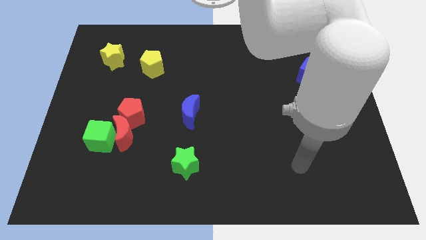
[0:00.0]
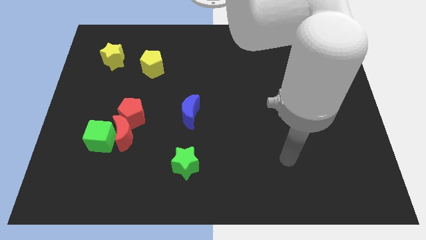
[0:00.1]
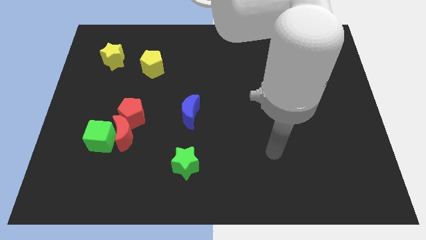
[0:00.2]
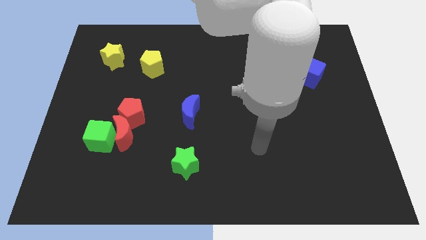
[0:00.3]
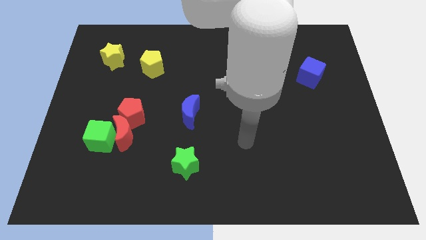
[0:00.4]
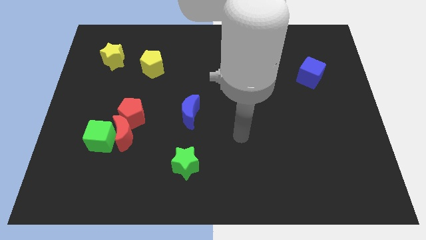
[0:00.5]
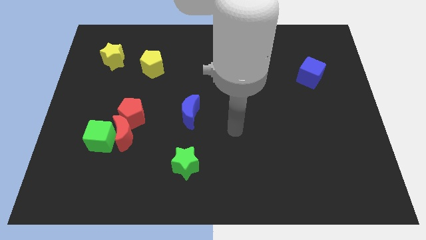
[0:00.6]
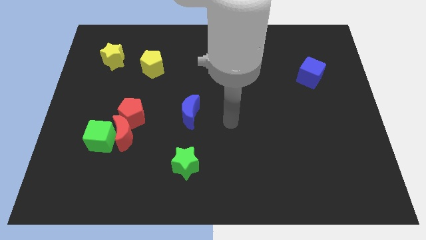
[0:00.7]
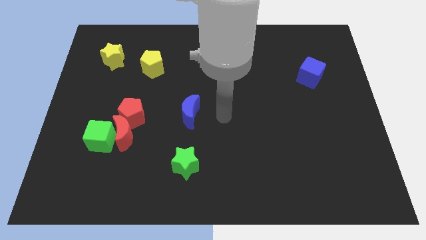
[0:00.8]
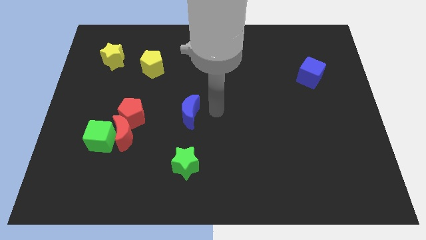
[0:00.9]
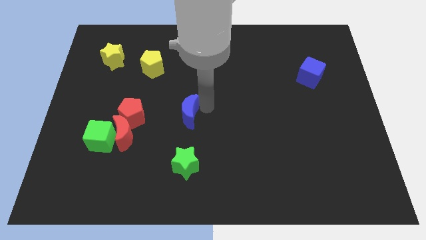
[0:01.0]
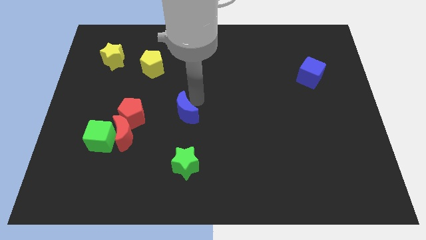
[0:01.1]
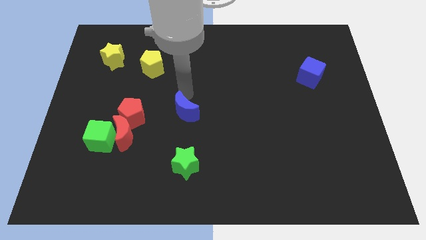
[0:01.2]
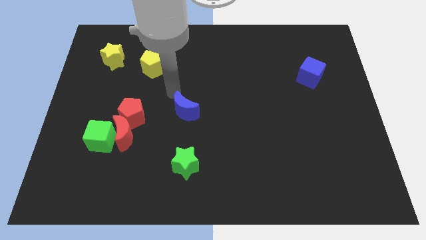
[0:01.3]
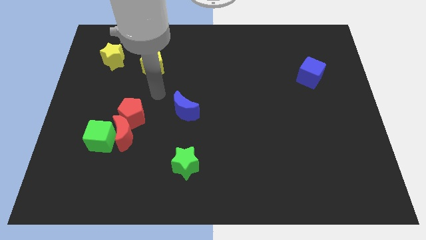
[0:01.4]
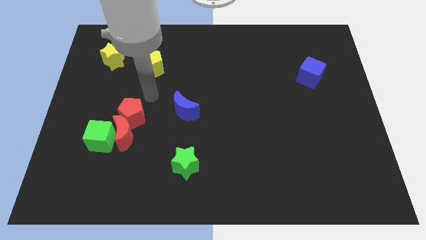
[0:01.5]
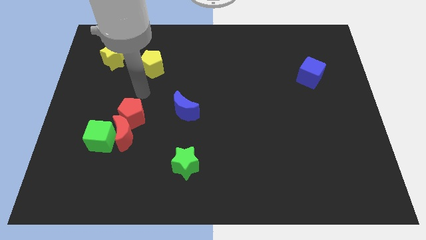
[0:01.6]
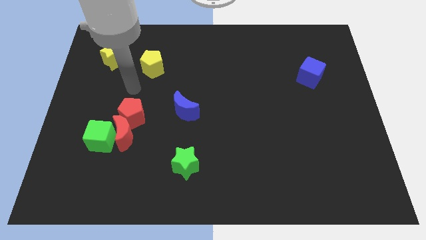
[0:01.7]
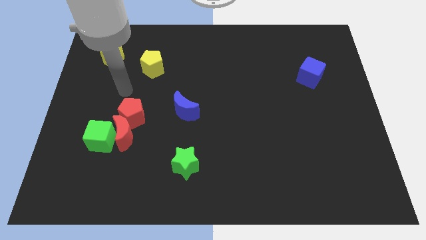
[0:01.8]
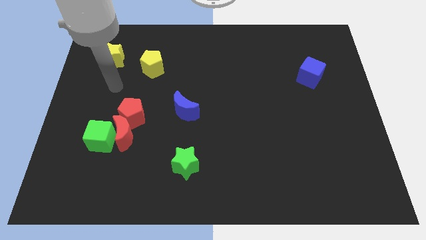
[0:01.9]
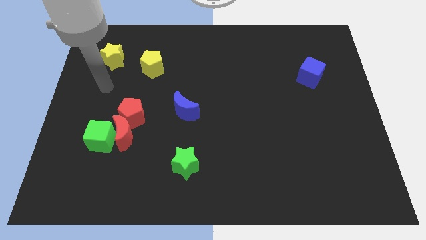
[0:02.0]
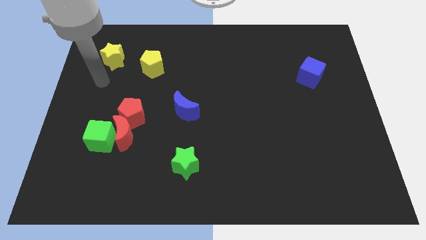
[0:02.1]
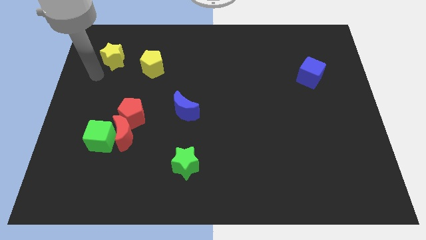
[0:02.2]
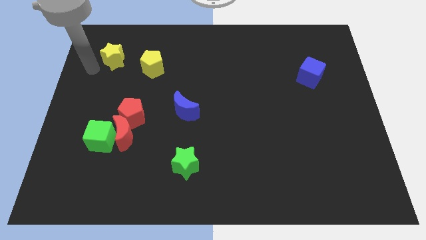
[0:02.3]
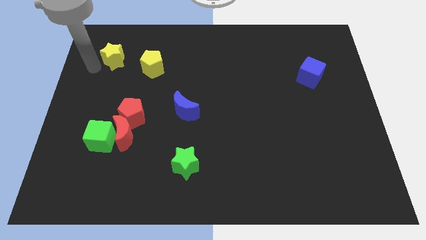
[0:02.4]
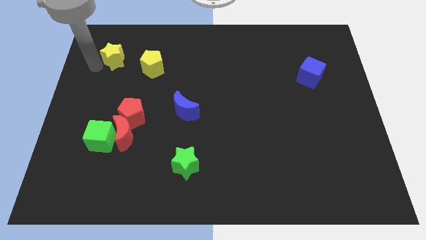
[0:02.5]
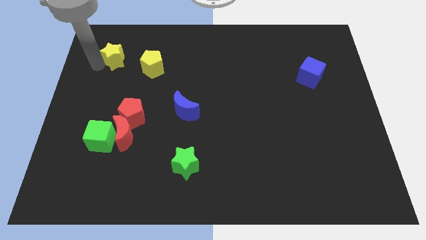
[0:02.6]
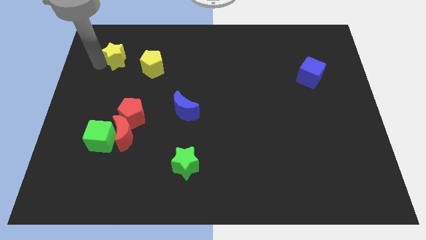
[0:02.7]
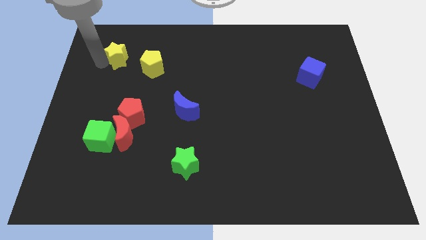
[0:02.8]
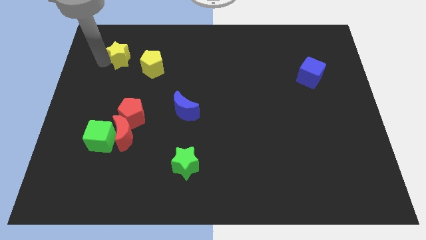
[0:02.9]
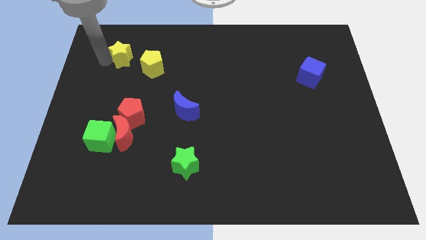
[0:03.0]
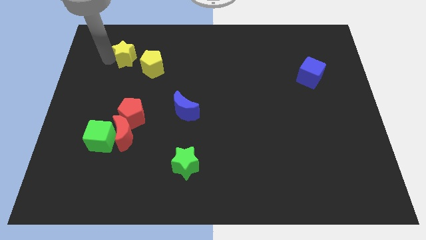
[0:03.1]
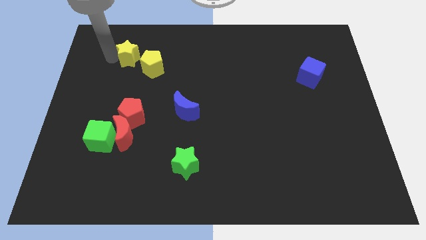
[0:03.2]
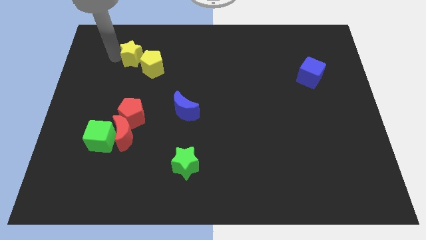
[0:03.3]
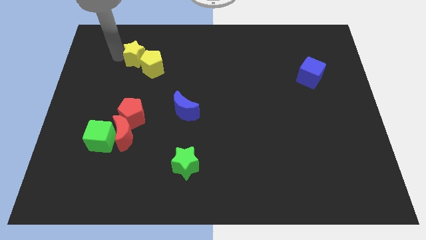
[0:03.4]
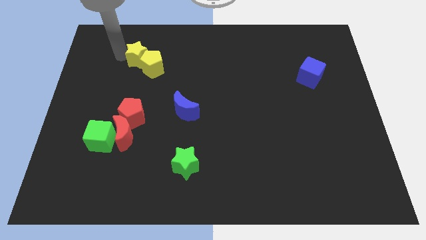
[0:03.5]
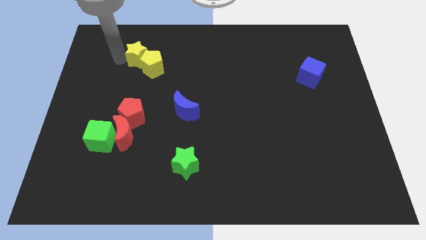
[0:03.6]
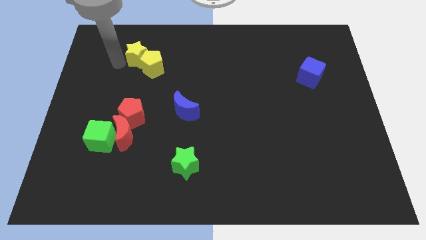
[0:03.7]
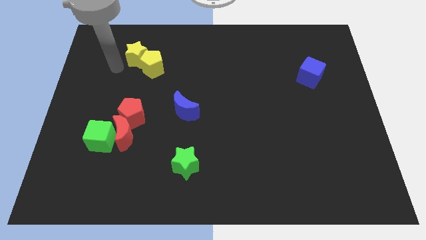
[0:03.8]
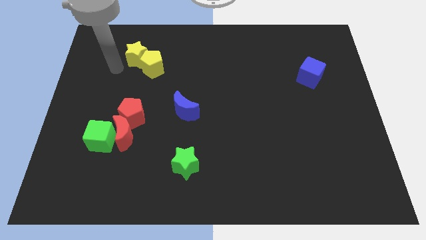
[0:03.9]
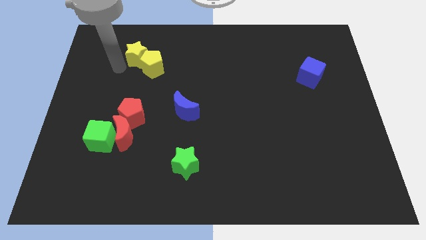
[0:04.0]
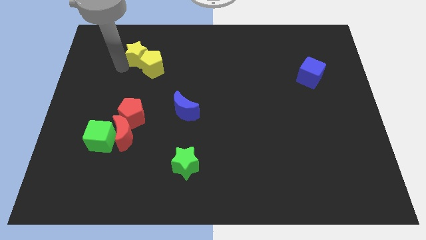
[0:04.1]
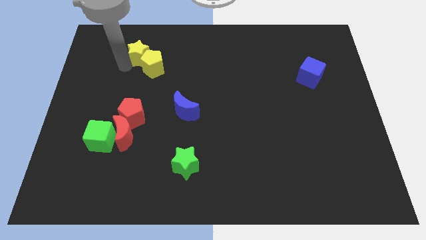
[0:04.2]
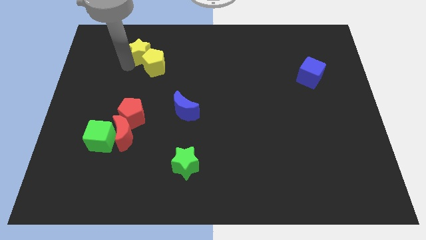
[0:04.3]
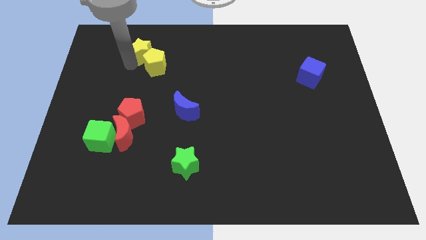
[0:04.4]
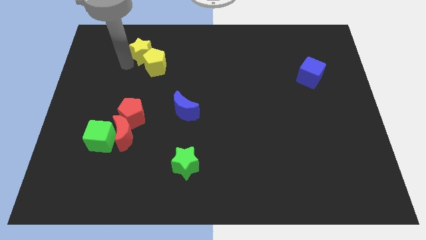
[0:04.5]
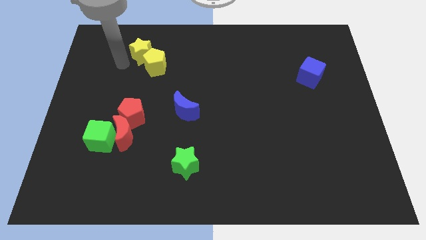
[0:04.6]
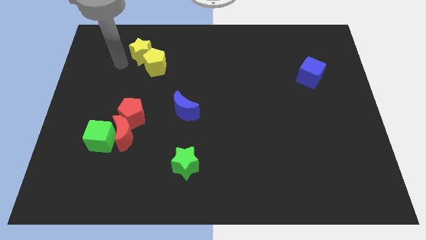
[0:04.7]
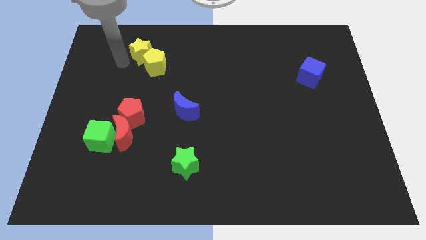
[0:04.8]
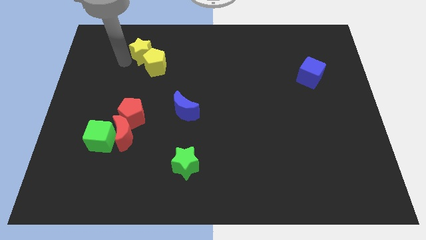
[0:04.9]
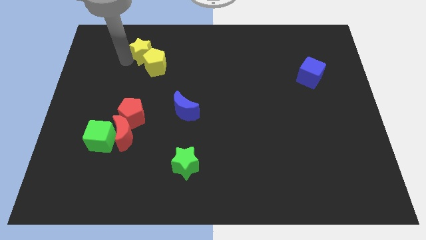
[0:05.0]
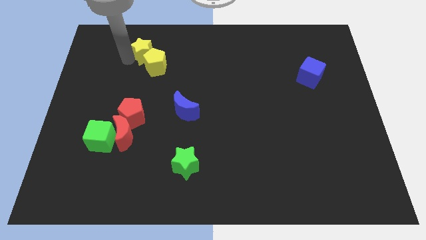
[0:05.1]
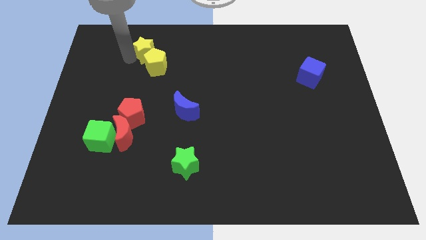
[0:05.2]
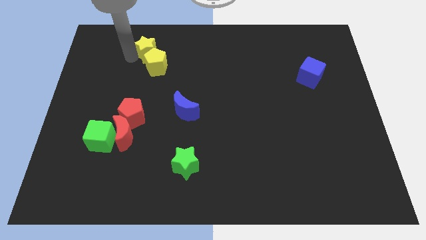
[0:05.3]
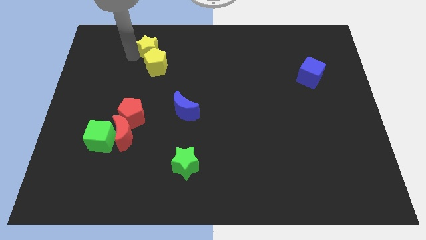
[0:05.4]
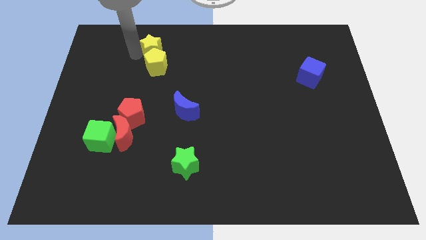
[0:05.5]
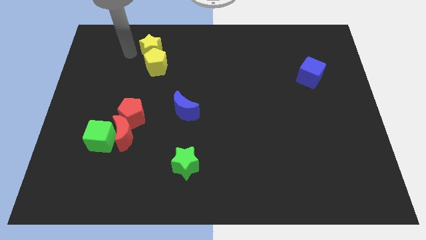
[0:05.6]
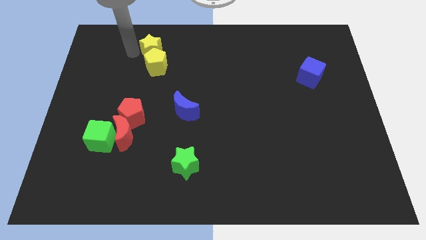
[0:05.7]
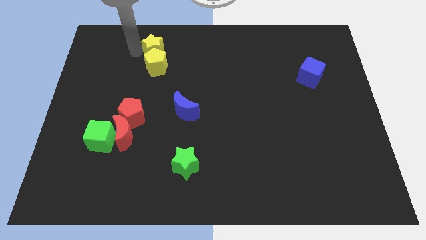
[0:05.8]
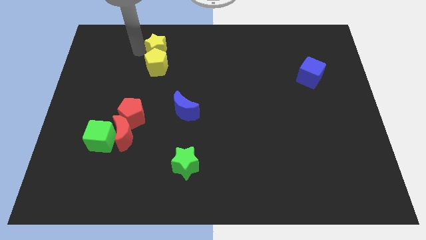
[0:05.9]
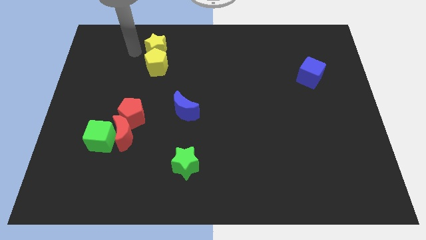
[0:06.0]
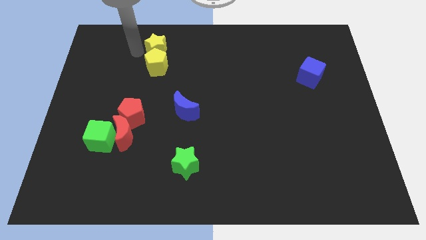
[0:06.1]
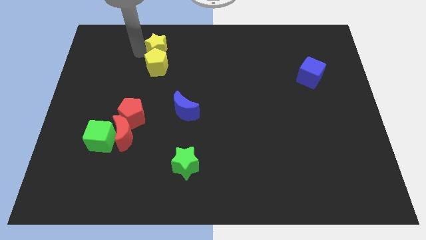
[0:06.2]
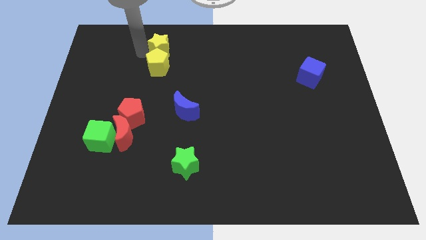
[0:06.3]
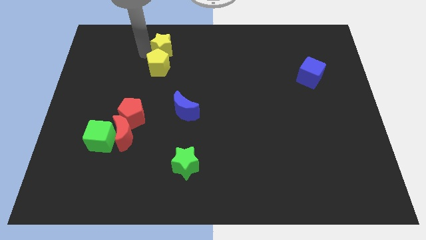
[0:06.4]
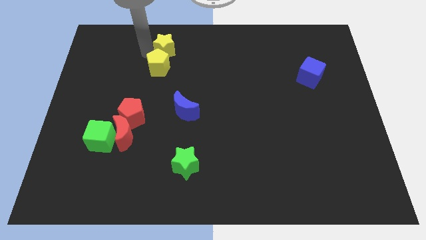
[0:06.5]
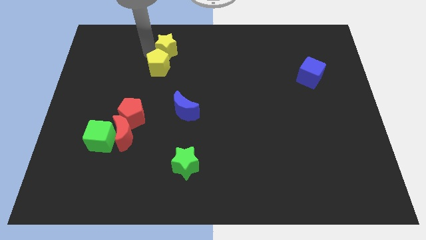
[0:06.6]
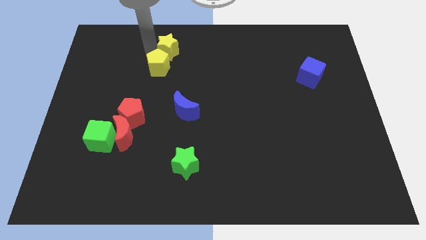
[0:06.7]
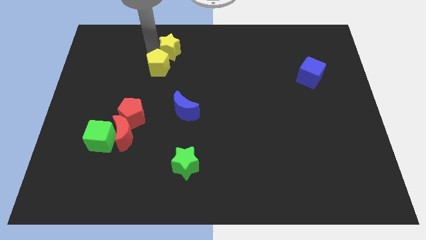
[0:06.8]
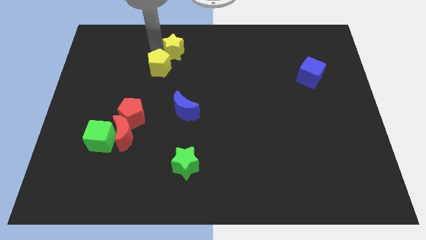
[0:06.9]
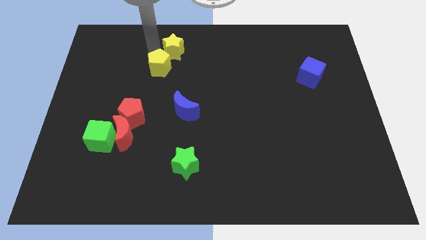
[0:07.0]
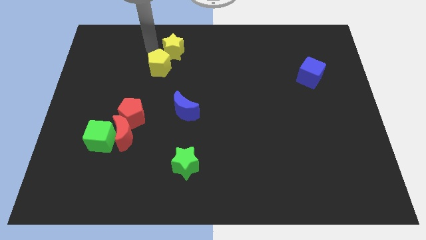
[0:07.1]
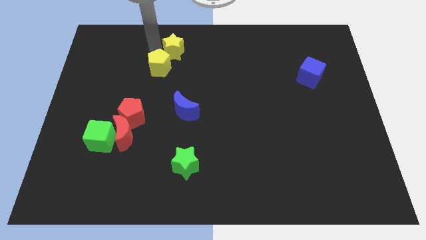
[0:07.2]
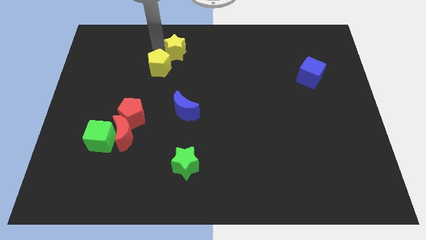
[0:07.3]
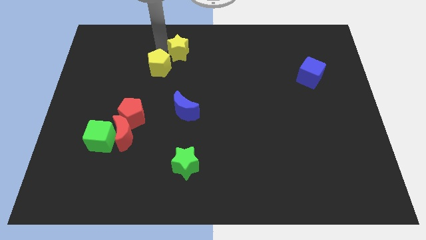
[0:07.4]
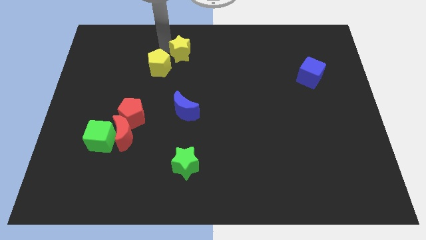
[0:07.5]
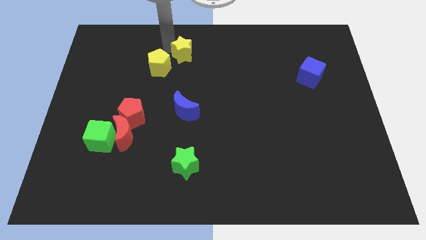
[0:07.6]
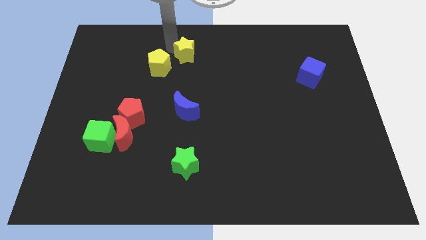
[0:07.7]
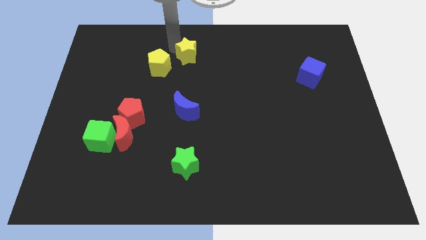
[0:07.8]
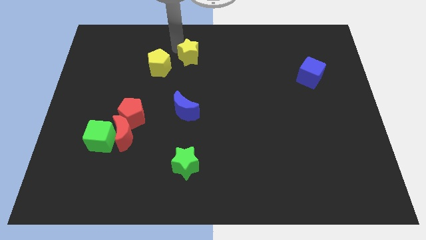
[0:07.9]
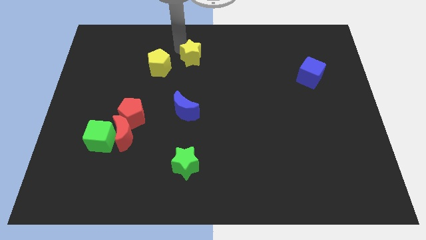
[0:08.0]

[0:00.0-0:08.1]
move the yellow star right

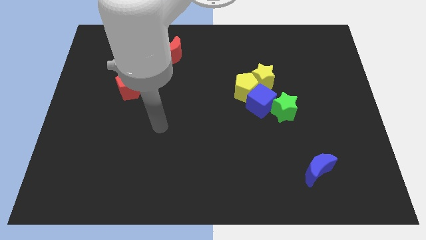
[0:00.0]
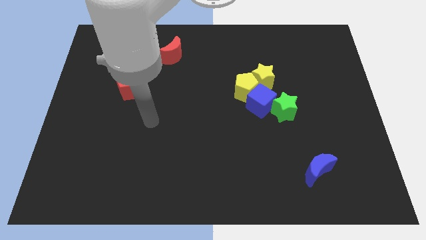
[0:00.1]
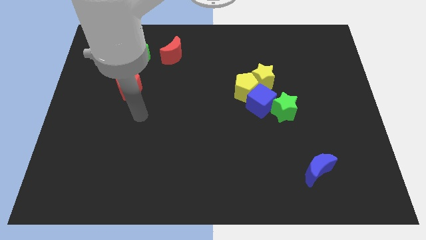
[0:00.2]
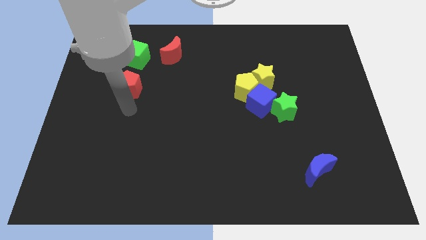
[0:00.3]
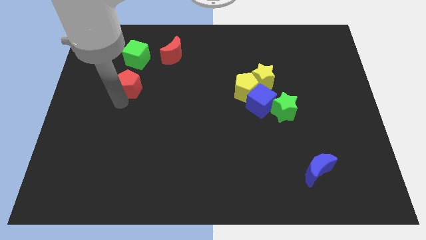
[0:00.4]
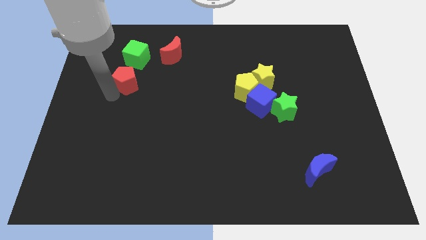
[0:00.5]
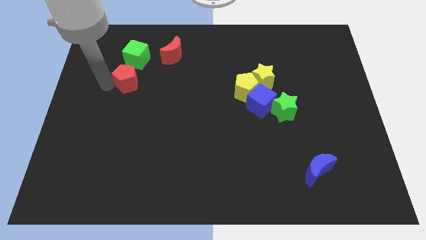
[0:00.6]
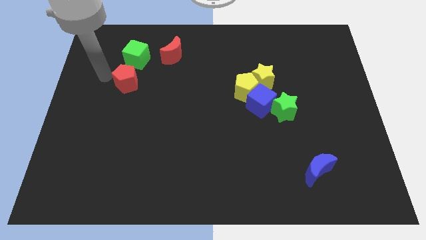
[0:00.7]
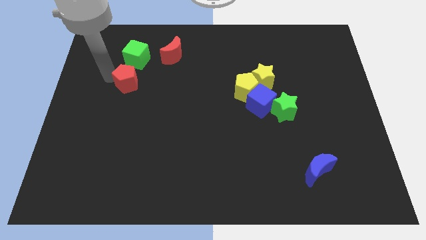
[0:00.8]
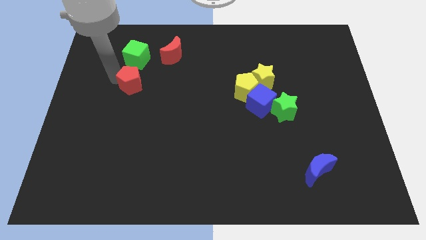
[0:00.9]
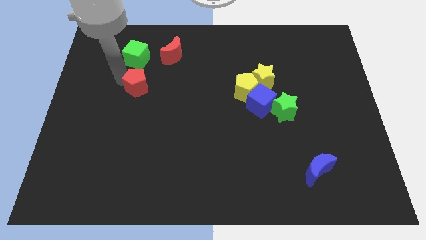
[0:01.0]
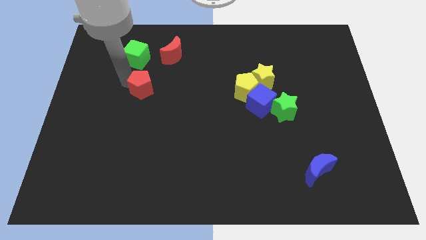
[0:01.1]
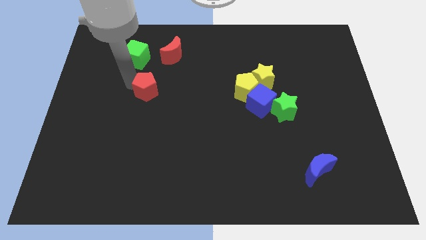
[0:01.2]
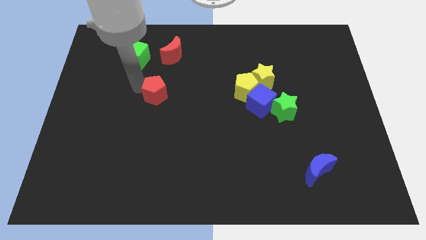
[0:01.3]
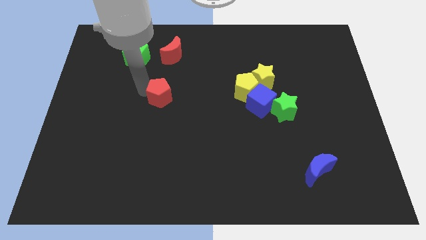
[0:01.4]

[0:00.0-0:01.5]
slightly push the red pentagon to the right
